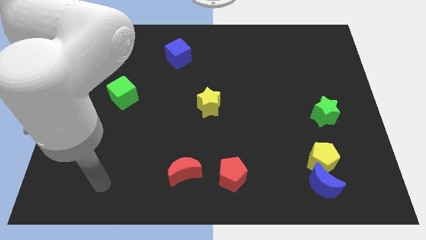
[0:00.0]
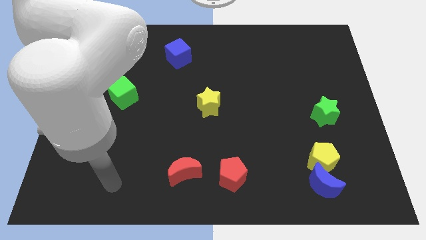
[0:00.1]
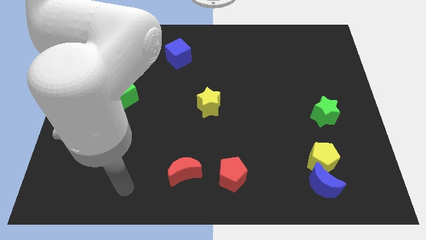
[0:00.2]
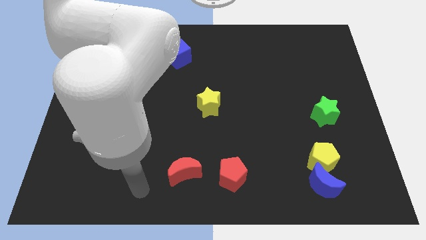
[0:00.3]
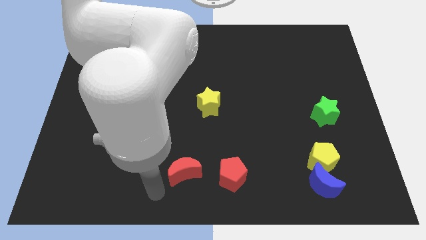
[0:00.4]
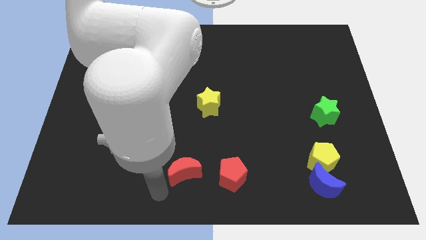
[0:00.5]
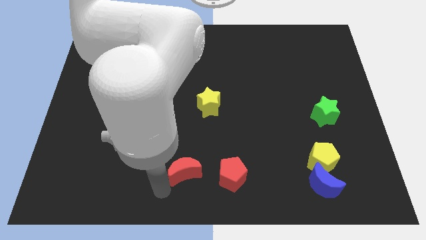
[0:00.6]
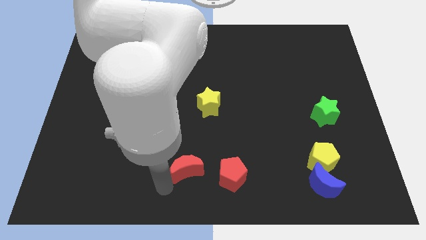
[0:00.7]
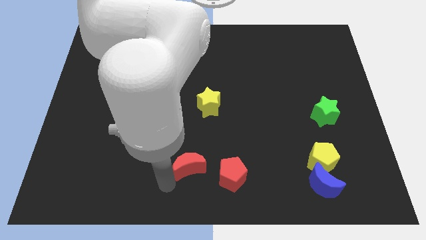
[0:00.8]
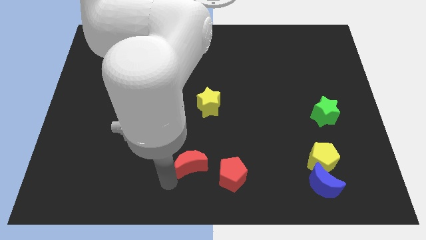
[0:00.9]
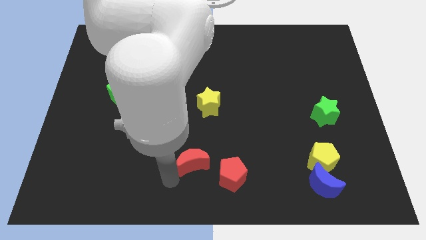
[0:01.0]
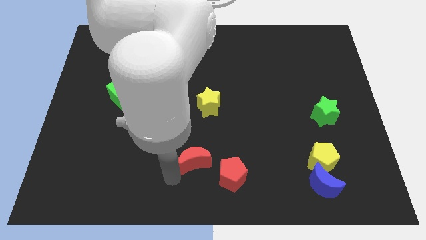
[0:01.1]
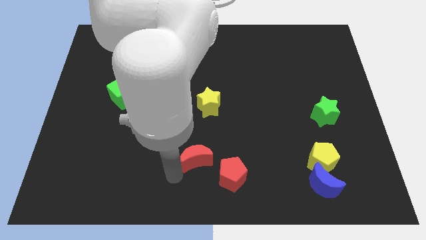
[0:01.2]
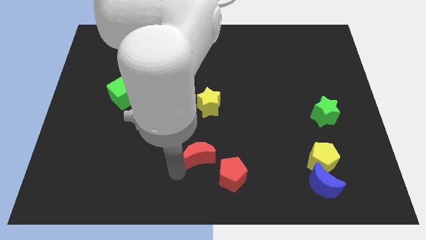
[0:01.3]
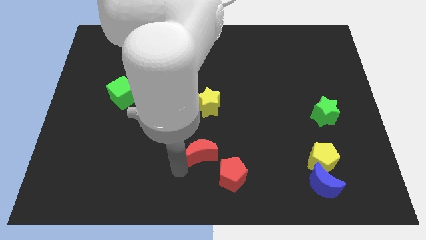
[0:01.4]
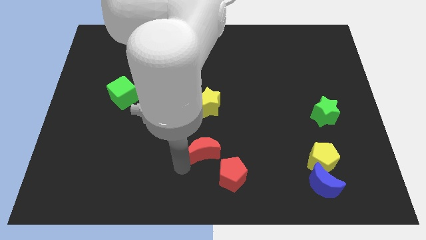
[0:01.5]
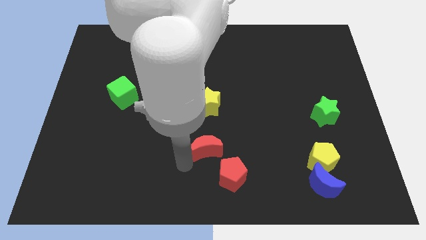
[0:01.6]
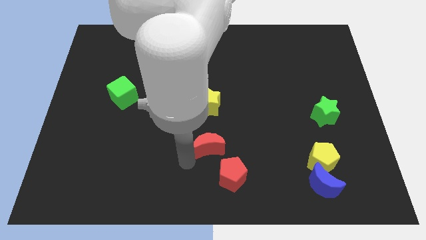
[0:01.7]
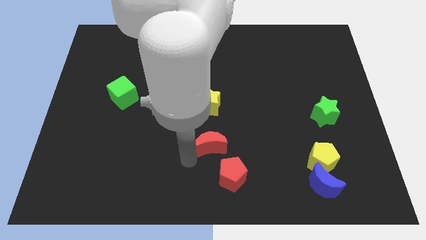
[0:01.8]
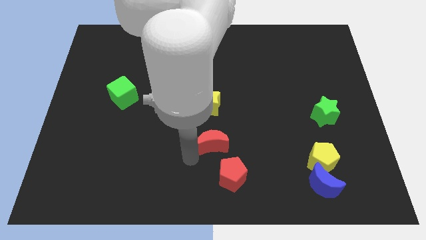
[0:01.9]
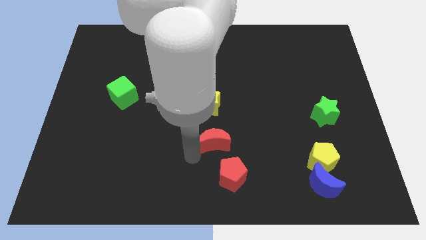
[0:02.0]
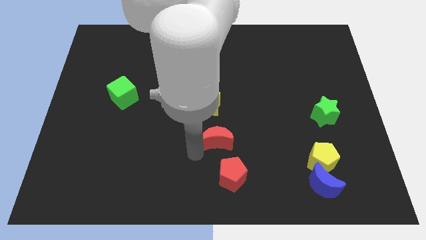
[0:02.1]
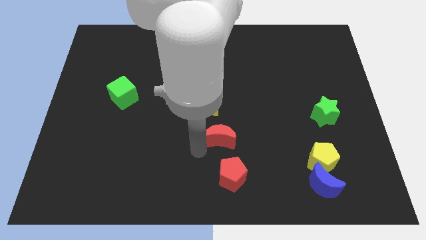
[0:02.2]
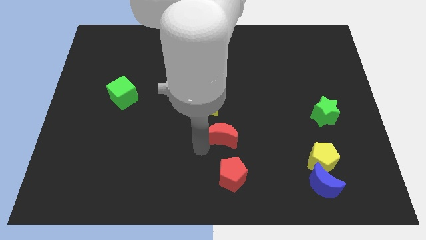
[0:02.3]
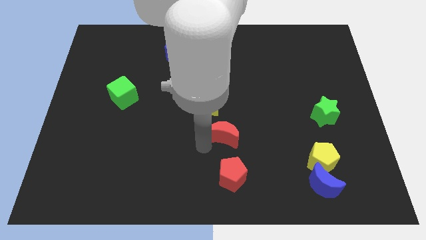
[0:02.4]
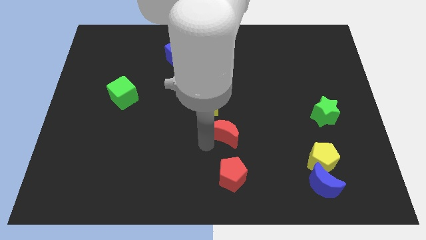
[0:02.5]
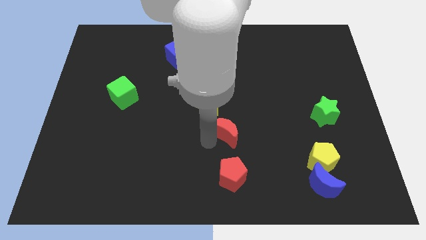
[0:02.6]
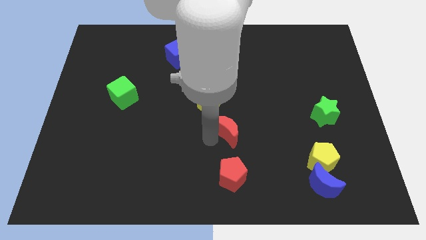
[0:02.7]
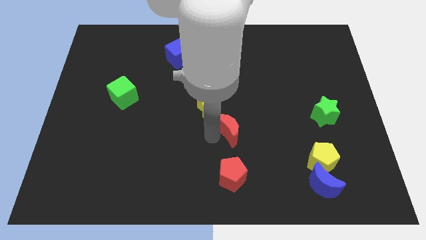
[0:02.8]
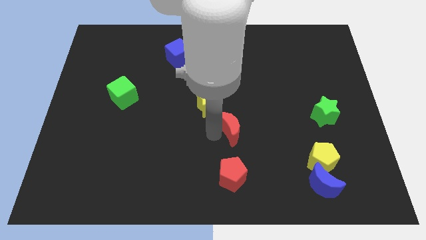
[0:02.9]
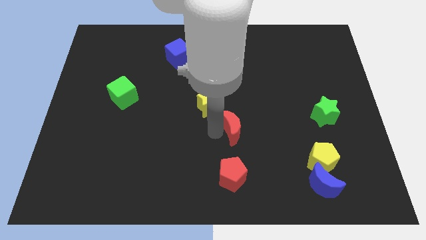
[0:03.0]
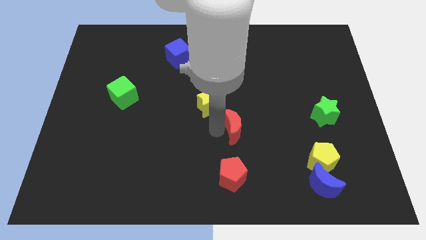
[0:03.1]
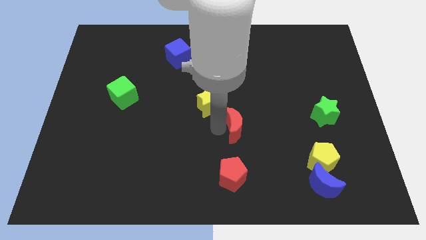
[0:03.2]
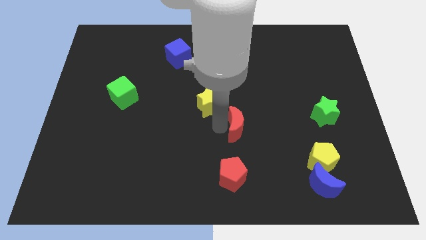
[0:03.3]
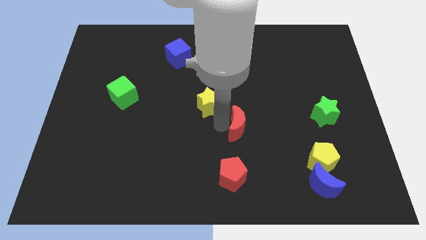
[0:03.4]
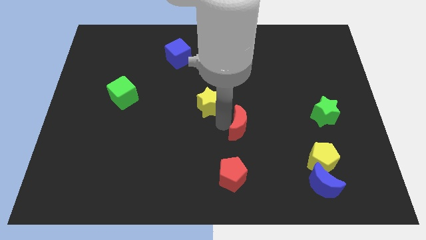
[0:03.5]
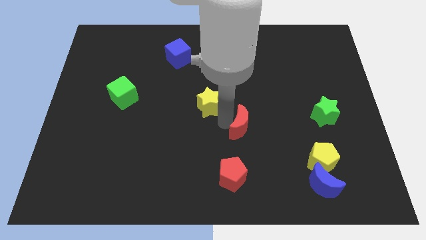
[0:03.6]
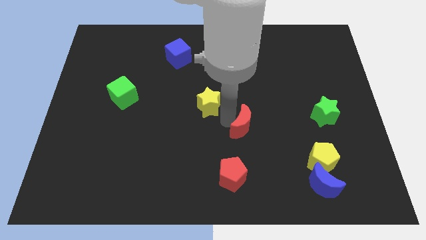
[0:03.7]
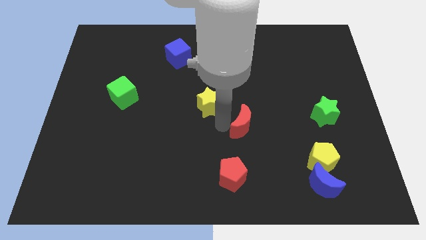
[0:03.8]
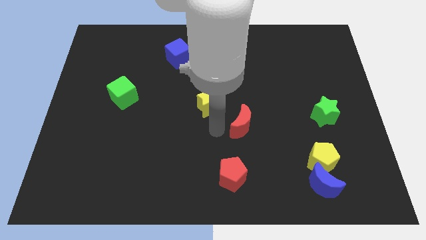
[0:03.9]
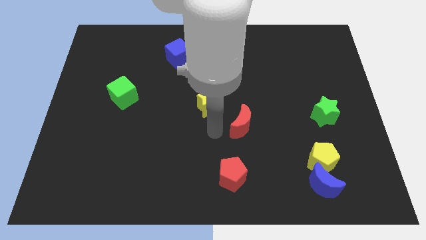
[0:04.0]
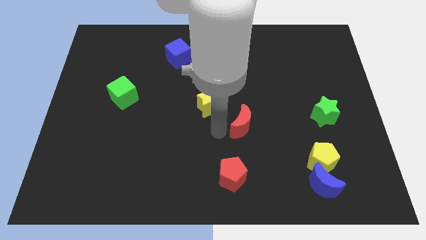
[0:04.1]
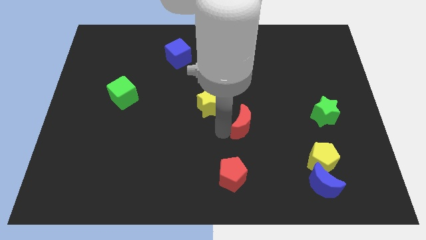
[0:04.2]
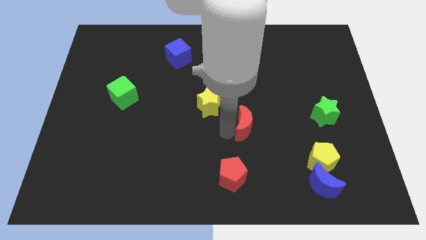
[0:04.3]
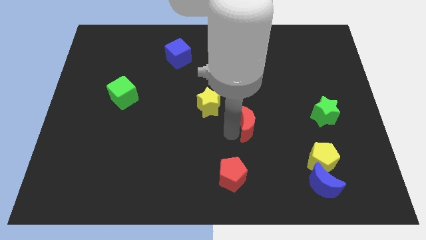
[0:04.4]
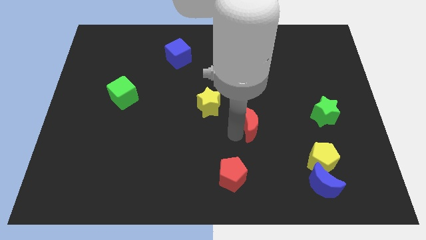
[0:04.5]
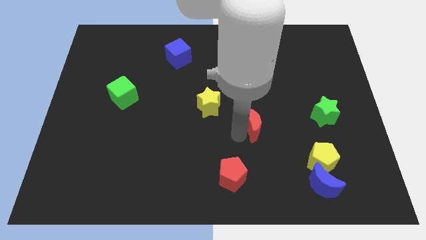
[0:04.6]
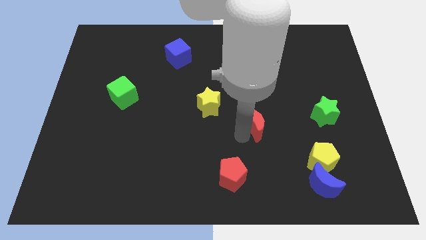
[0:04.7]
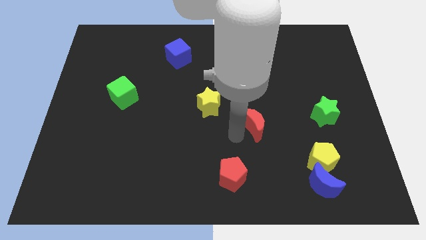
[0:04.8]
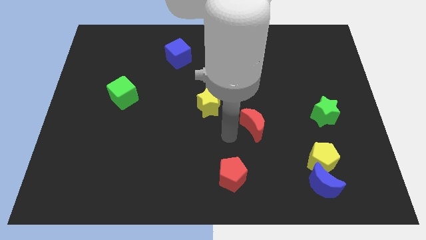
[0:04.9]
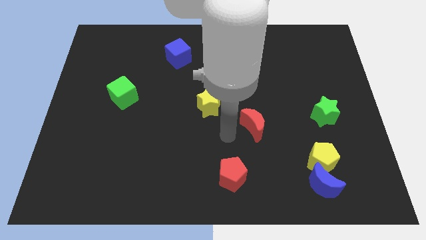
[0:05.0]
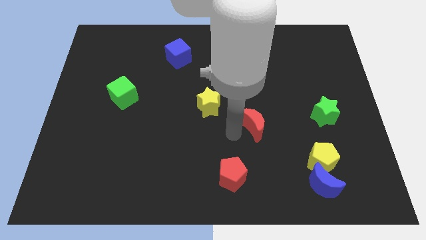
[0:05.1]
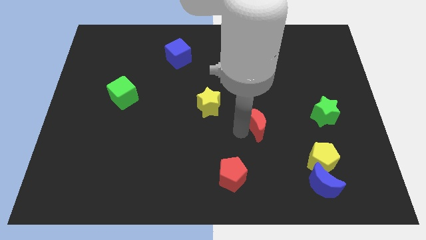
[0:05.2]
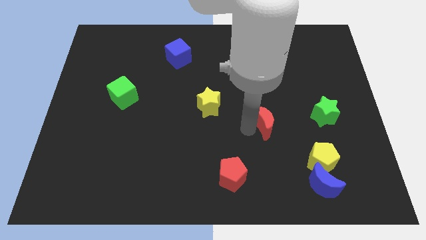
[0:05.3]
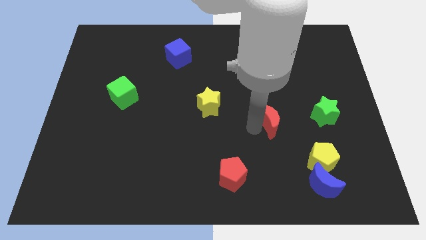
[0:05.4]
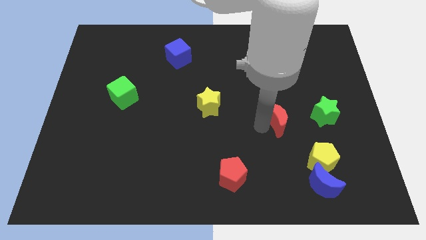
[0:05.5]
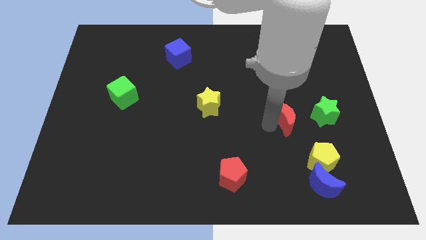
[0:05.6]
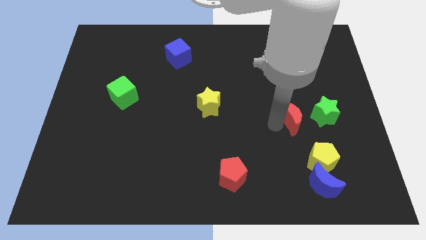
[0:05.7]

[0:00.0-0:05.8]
slide the red moon above the yellow pentagon

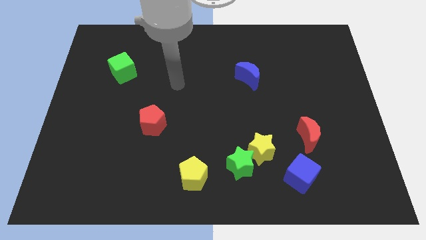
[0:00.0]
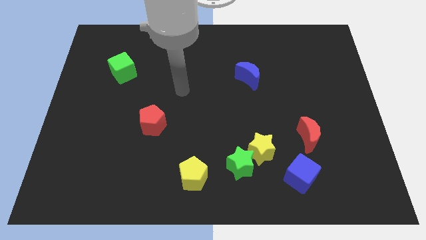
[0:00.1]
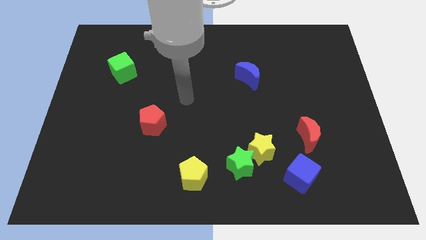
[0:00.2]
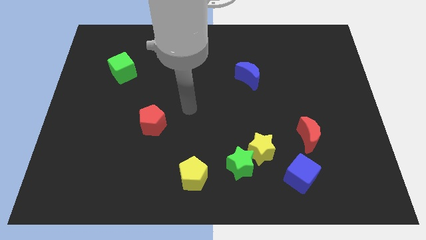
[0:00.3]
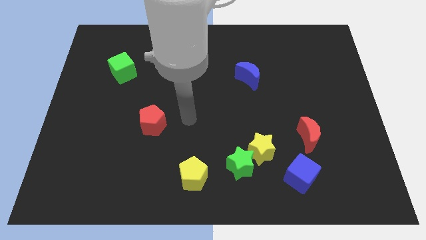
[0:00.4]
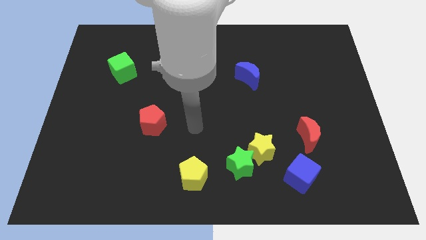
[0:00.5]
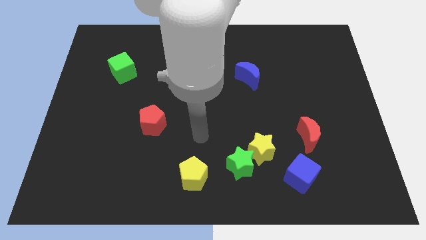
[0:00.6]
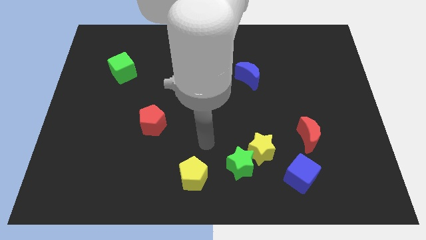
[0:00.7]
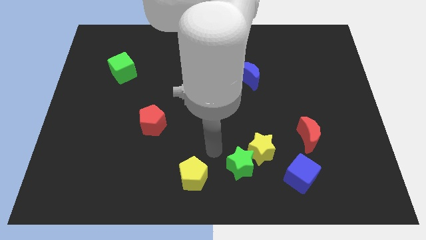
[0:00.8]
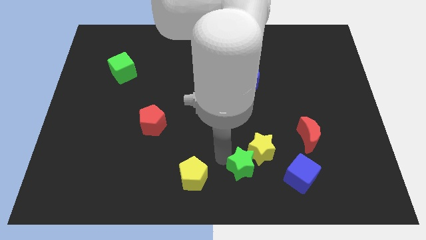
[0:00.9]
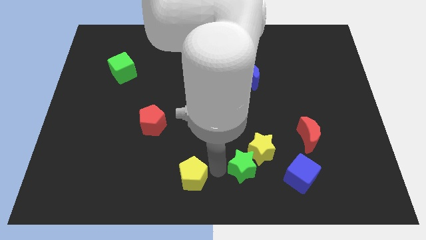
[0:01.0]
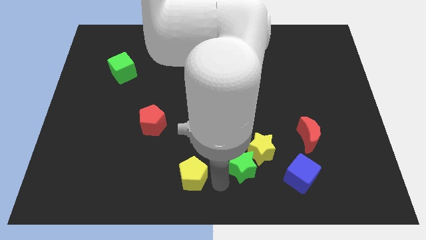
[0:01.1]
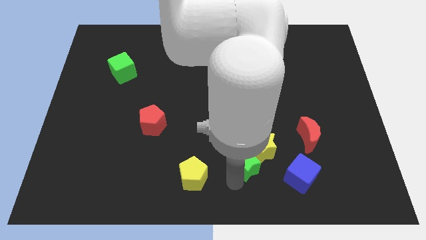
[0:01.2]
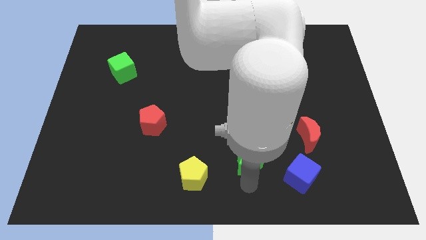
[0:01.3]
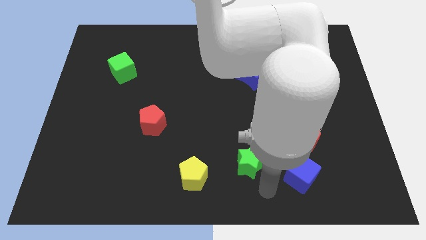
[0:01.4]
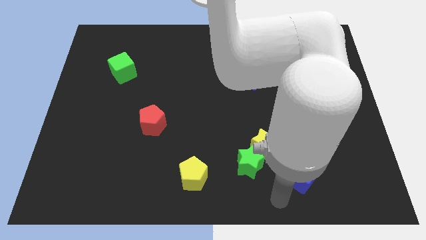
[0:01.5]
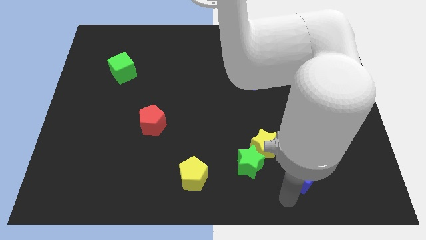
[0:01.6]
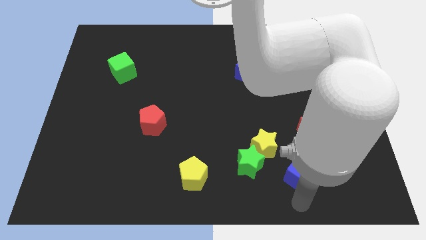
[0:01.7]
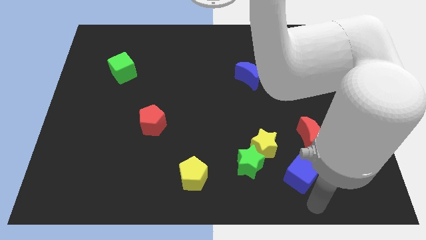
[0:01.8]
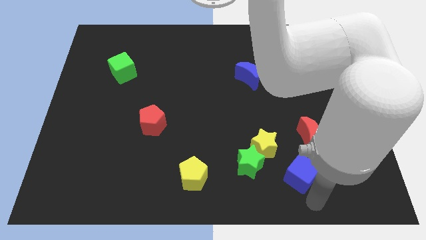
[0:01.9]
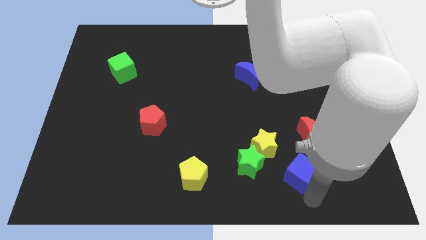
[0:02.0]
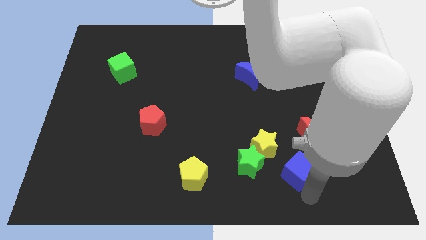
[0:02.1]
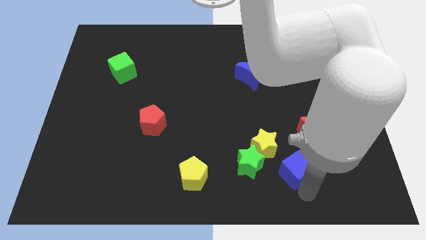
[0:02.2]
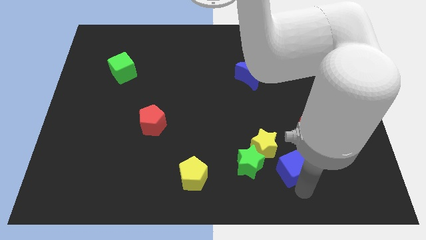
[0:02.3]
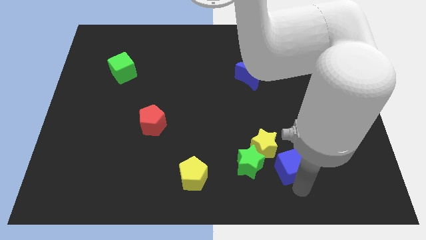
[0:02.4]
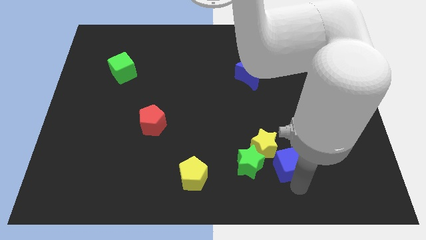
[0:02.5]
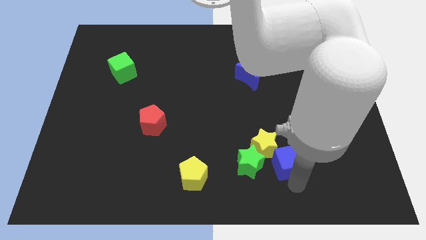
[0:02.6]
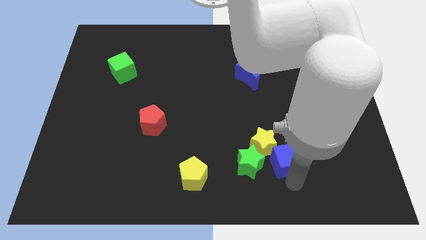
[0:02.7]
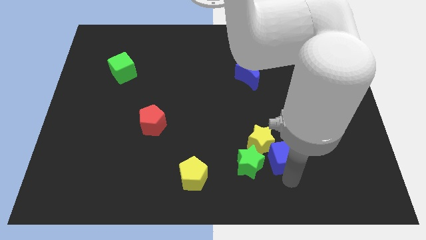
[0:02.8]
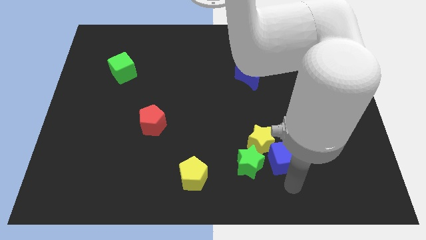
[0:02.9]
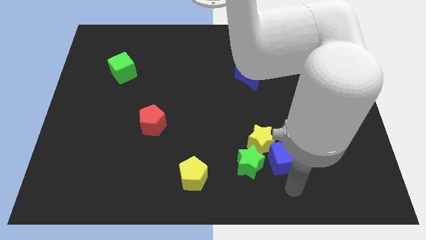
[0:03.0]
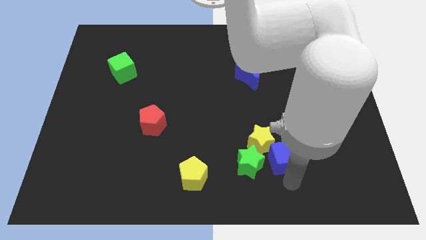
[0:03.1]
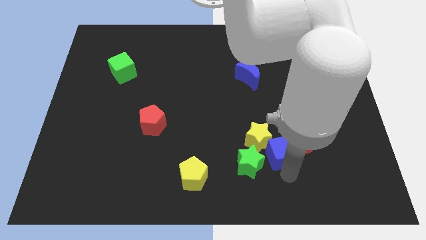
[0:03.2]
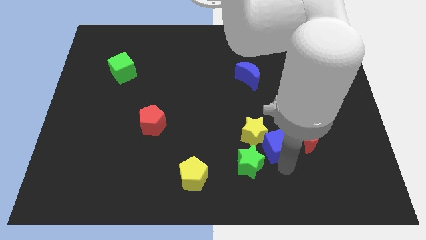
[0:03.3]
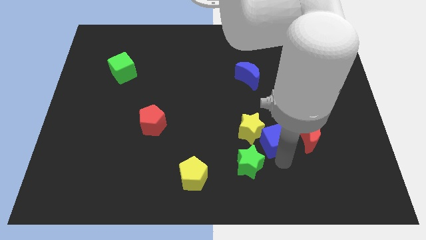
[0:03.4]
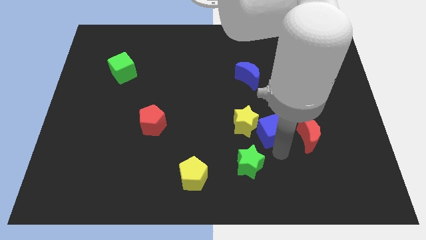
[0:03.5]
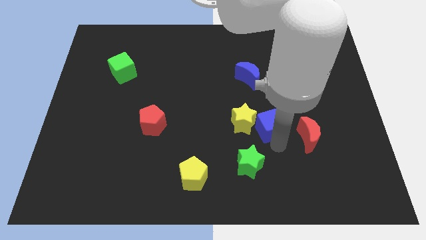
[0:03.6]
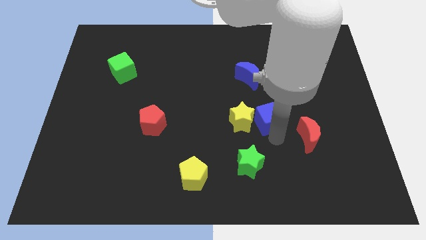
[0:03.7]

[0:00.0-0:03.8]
move the blue cube below the blue moon
